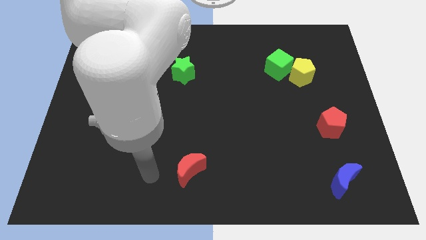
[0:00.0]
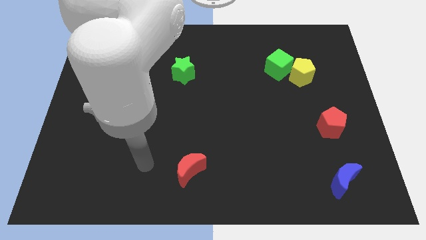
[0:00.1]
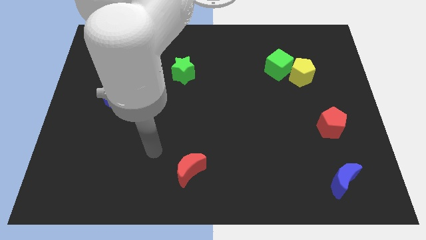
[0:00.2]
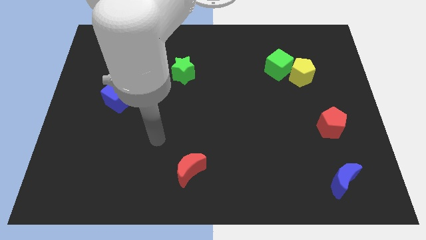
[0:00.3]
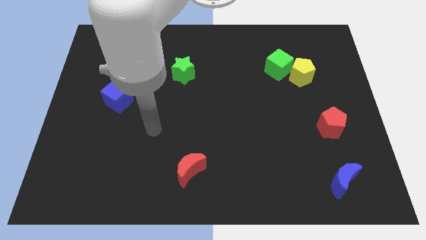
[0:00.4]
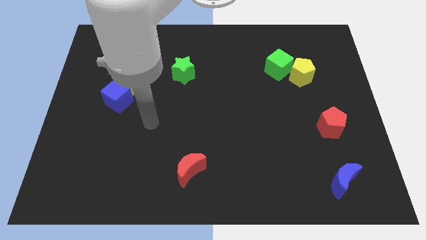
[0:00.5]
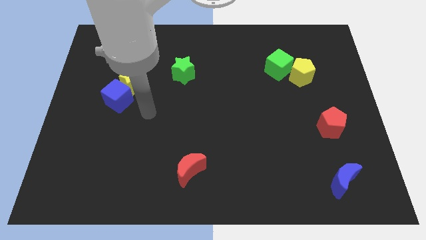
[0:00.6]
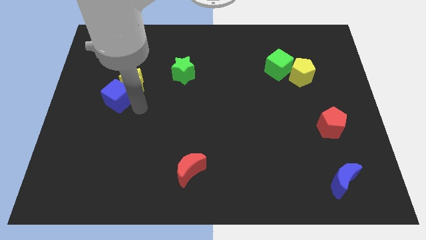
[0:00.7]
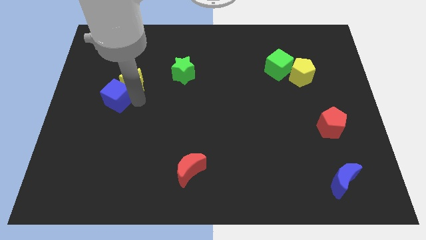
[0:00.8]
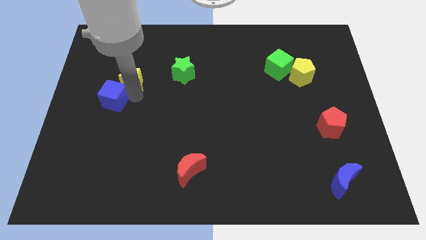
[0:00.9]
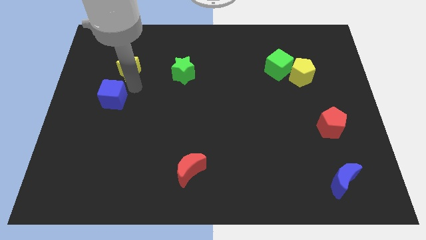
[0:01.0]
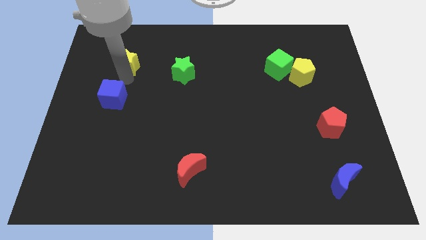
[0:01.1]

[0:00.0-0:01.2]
pull the blue cube apart from the yellow star

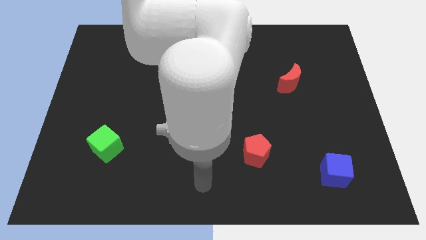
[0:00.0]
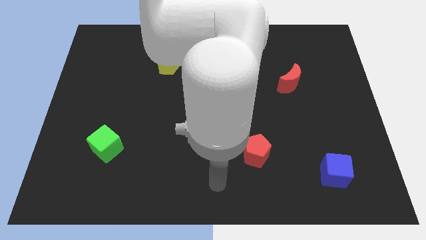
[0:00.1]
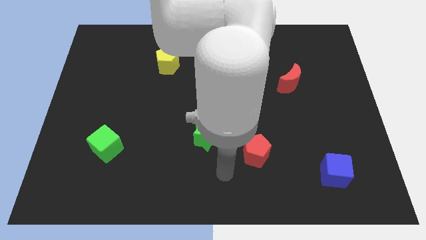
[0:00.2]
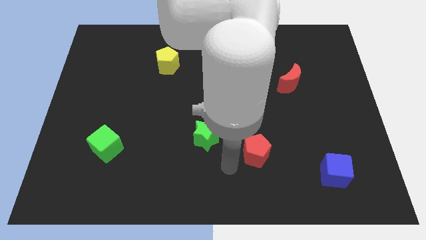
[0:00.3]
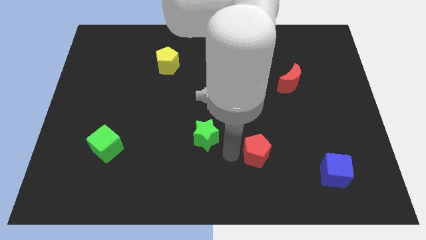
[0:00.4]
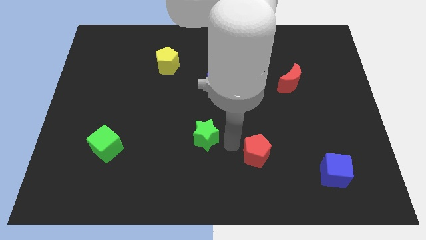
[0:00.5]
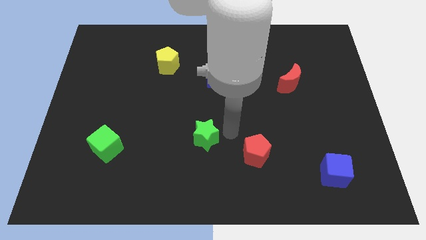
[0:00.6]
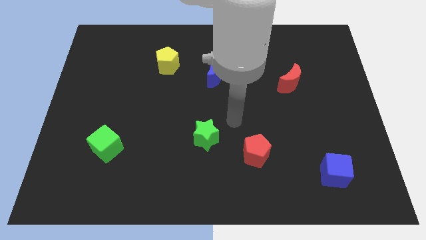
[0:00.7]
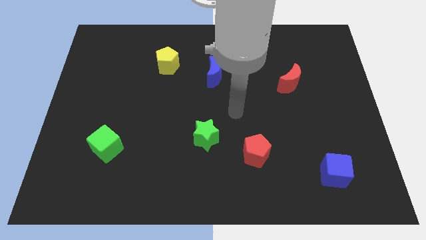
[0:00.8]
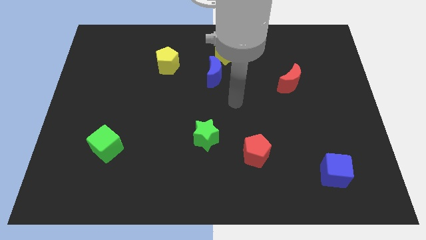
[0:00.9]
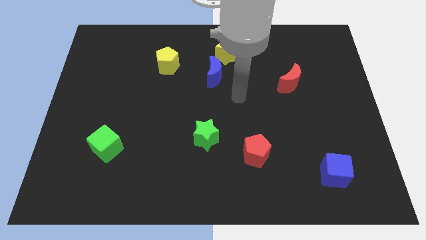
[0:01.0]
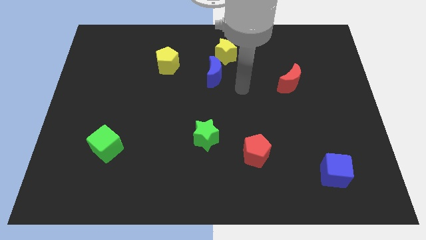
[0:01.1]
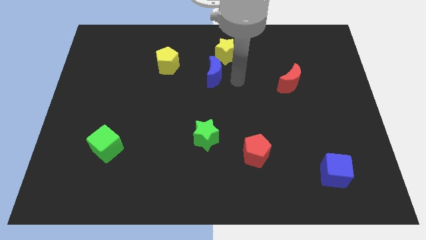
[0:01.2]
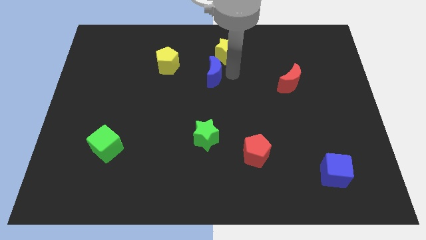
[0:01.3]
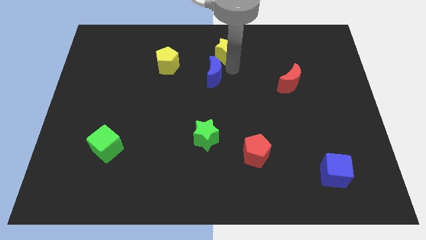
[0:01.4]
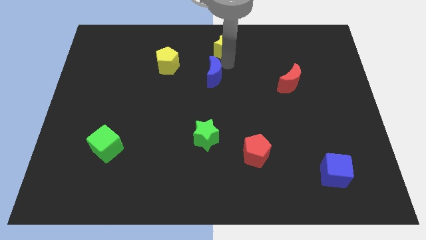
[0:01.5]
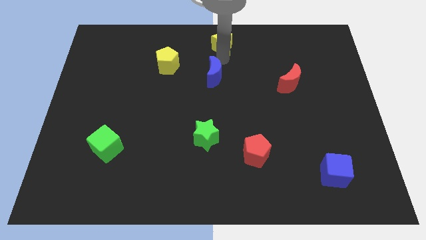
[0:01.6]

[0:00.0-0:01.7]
separate the blue moon from the yellow star

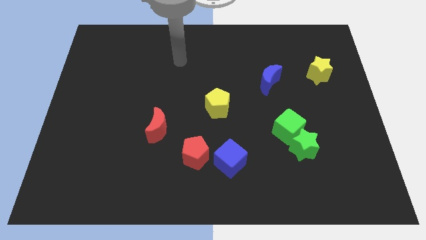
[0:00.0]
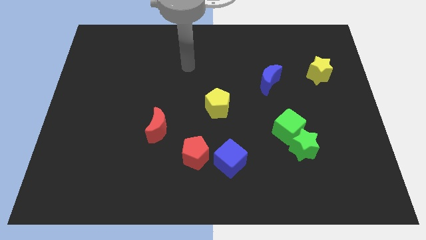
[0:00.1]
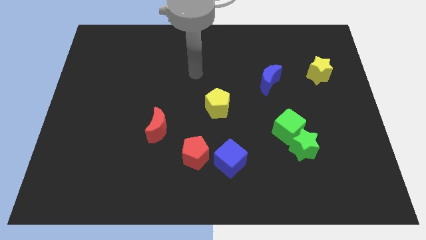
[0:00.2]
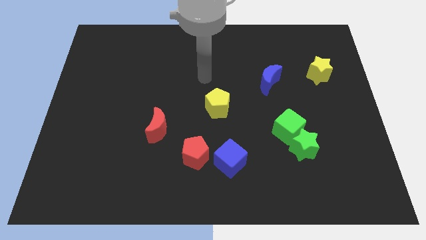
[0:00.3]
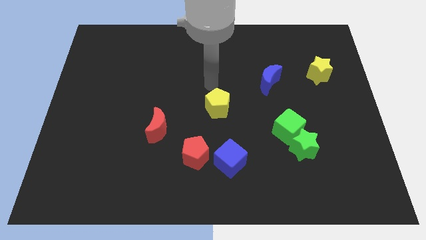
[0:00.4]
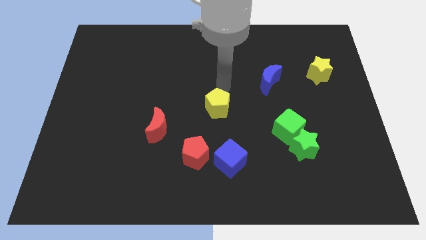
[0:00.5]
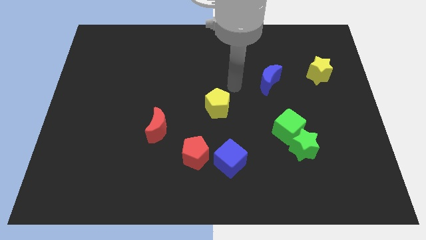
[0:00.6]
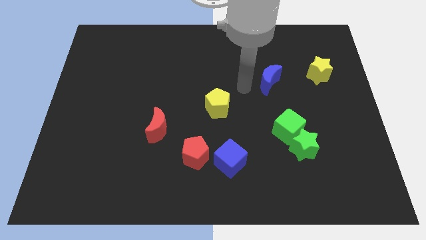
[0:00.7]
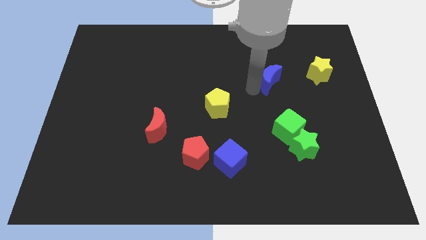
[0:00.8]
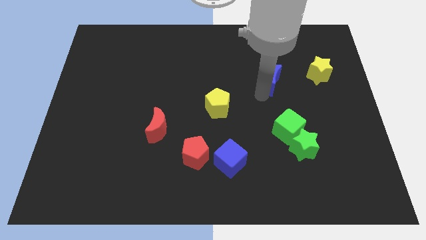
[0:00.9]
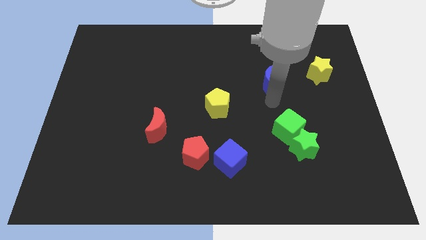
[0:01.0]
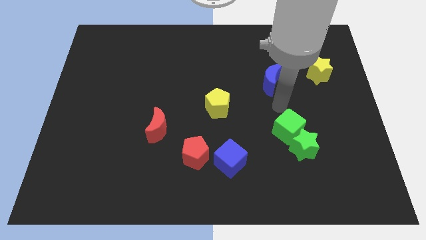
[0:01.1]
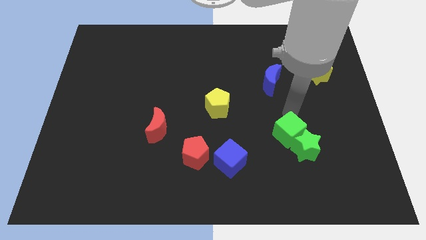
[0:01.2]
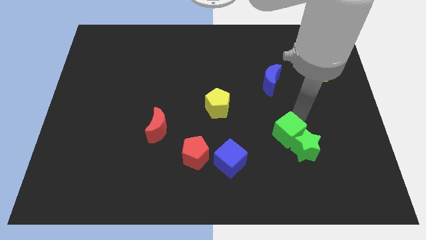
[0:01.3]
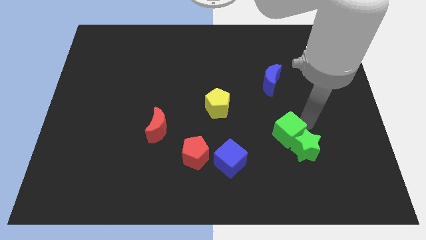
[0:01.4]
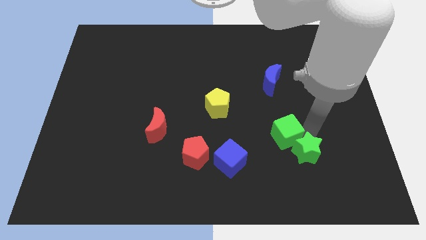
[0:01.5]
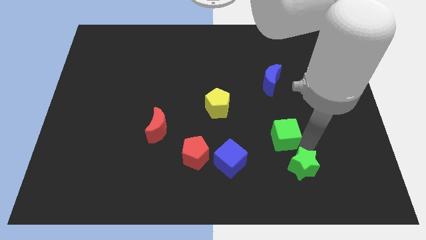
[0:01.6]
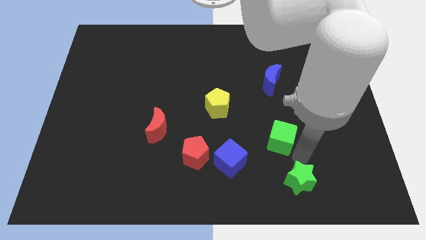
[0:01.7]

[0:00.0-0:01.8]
separate the green cube from the green star

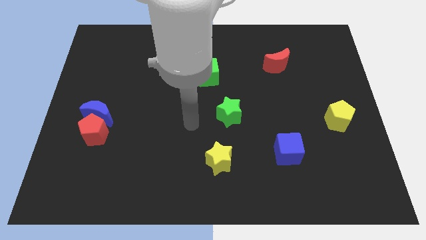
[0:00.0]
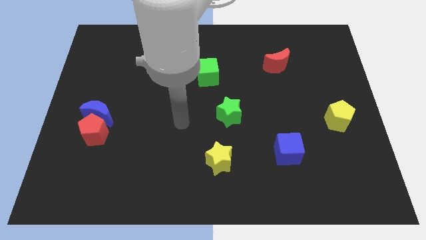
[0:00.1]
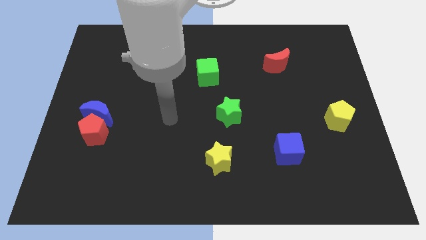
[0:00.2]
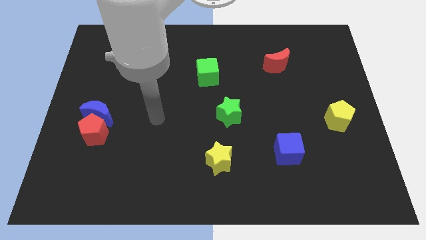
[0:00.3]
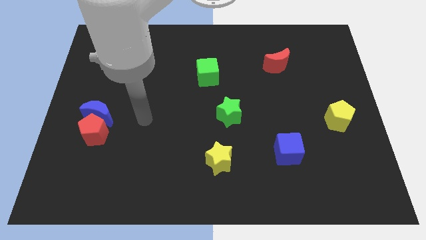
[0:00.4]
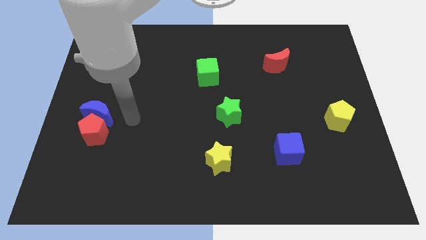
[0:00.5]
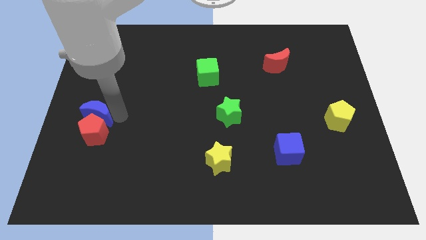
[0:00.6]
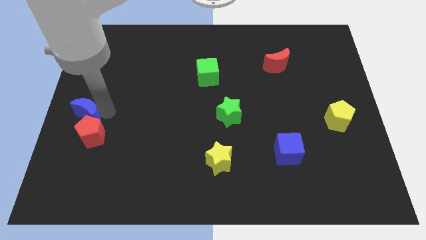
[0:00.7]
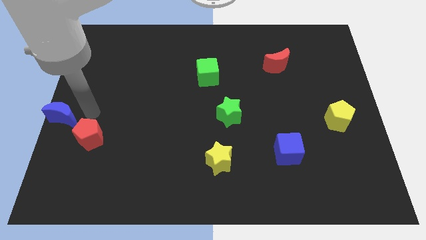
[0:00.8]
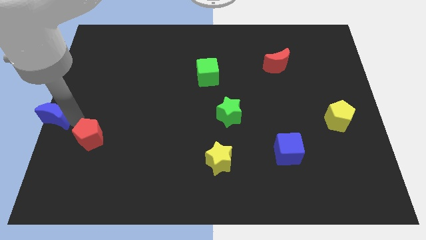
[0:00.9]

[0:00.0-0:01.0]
move the red pentagon away from the blue moon

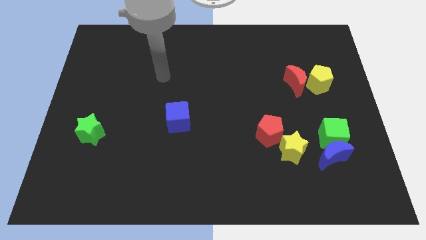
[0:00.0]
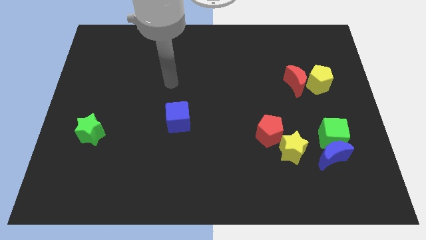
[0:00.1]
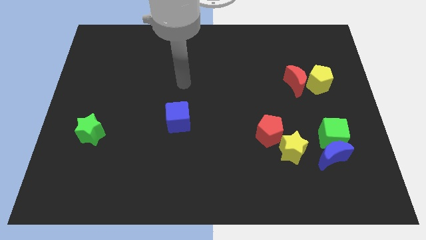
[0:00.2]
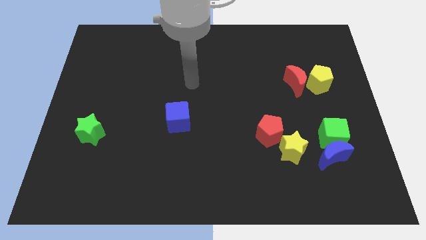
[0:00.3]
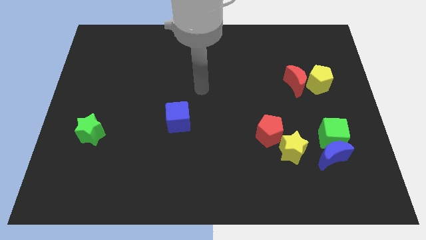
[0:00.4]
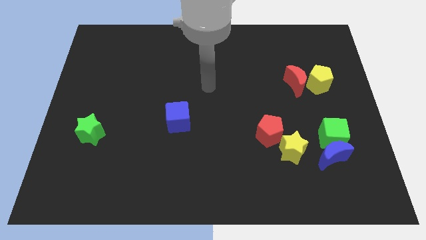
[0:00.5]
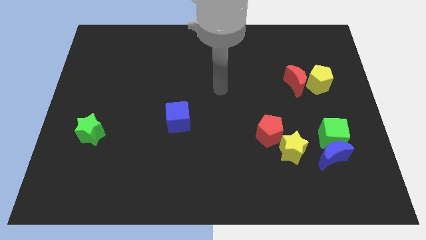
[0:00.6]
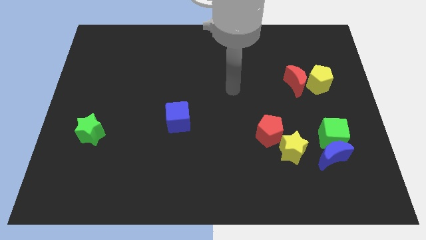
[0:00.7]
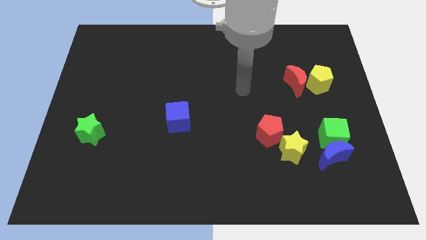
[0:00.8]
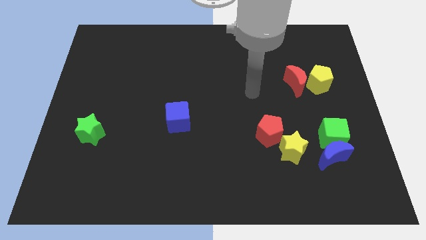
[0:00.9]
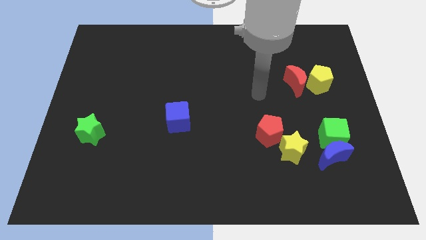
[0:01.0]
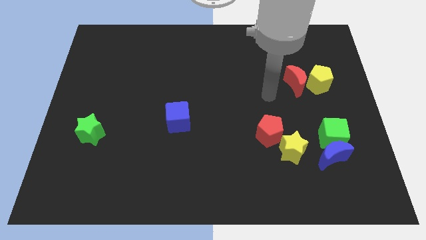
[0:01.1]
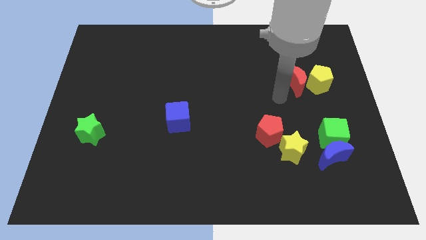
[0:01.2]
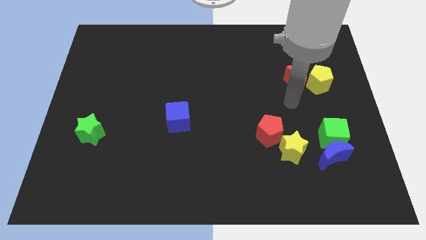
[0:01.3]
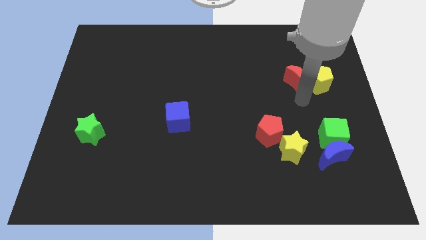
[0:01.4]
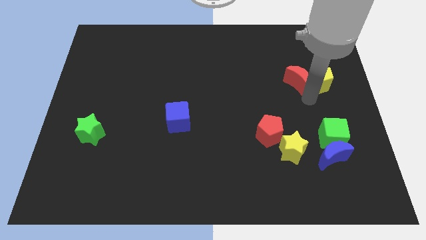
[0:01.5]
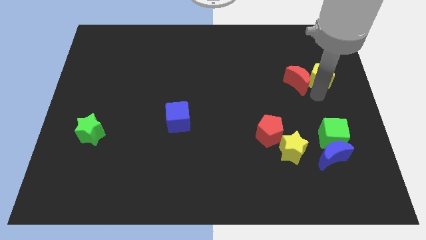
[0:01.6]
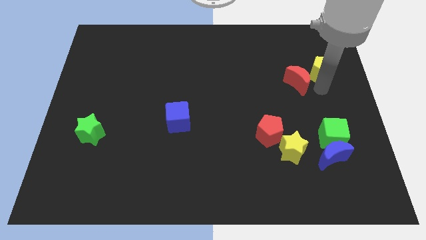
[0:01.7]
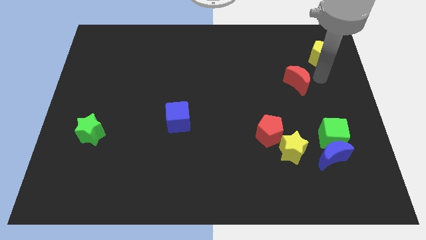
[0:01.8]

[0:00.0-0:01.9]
separate the red moon from the yellow pentagon

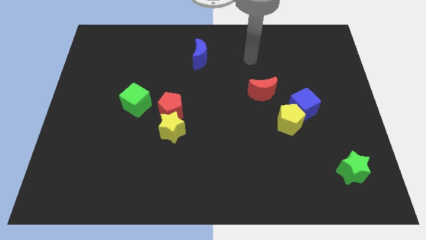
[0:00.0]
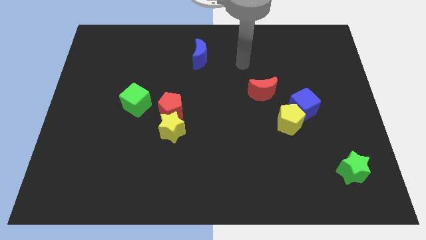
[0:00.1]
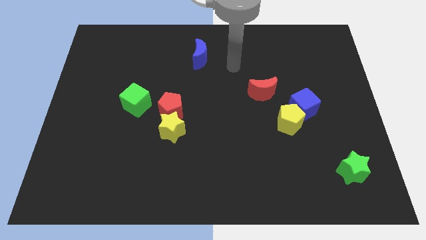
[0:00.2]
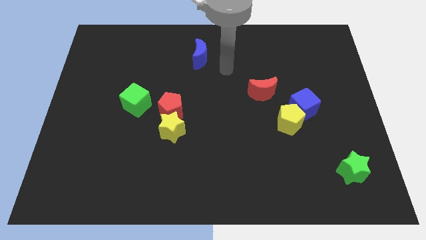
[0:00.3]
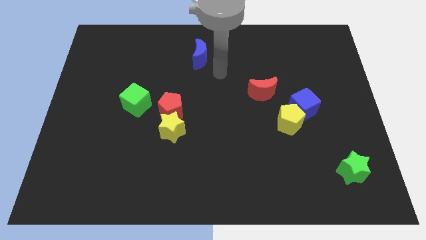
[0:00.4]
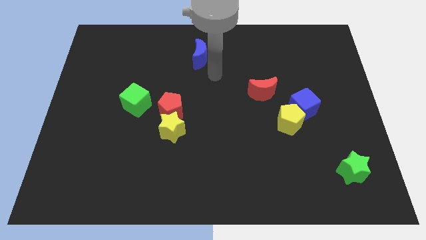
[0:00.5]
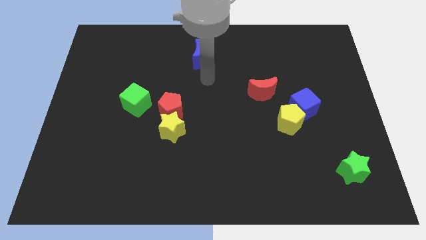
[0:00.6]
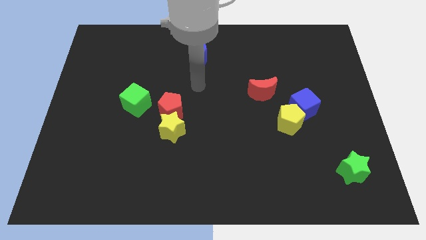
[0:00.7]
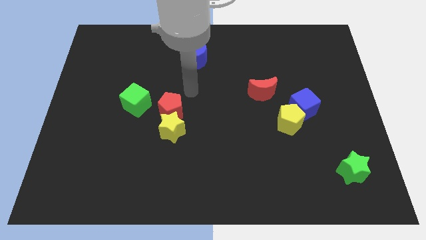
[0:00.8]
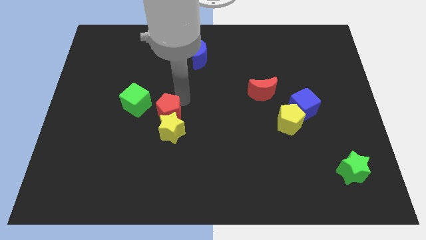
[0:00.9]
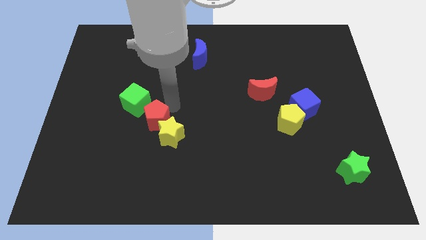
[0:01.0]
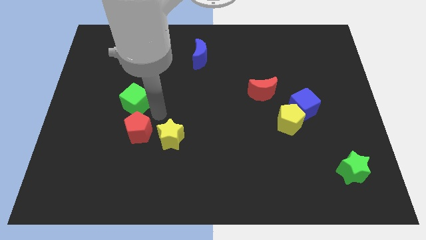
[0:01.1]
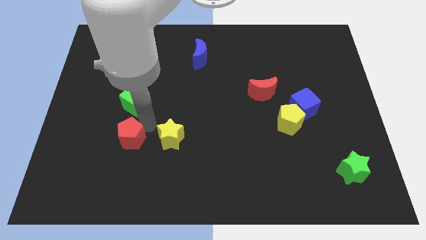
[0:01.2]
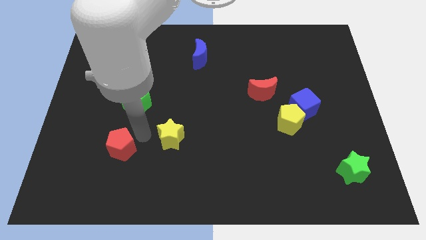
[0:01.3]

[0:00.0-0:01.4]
separate the yellow star from the red pentagon

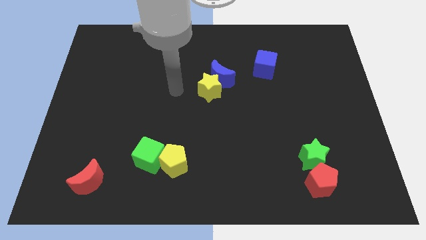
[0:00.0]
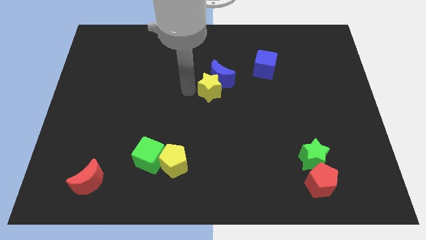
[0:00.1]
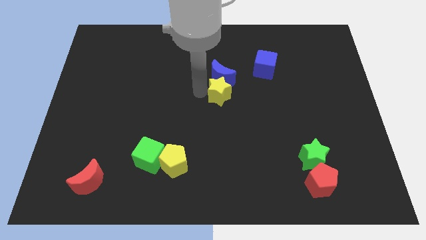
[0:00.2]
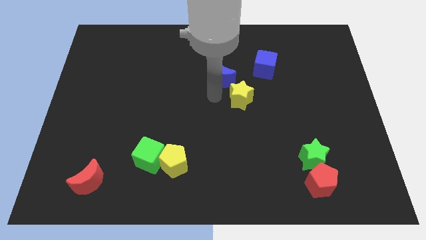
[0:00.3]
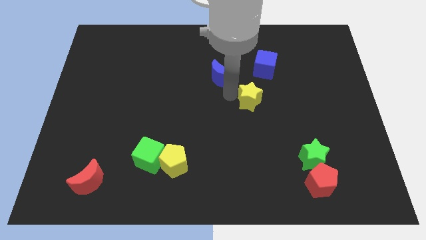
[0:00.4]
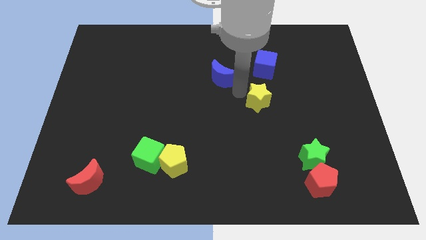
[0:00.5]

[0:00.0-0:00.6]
pull the blue moon apart from the yellow star
